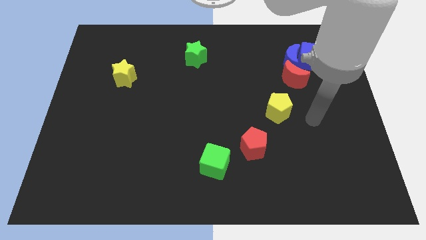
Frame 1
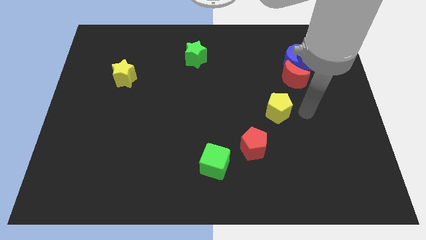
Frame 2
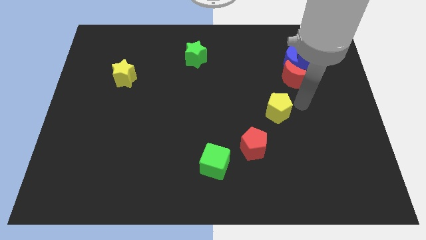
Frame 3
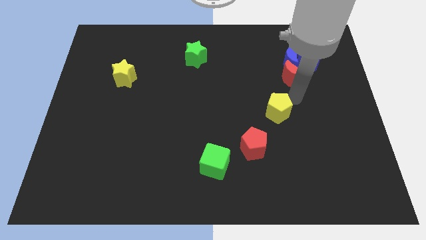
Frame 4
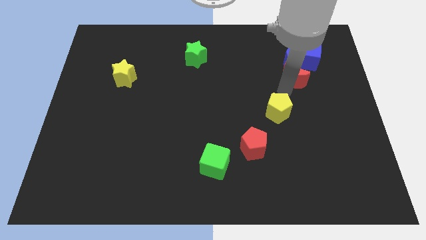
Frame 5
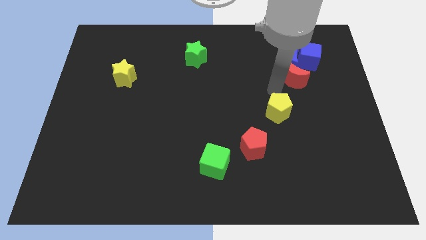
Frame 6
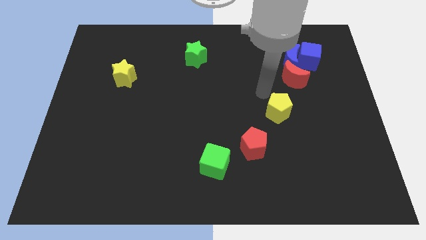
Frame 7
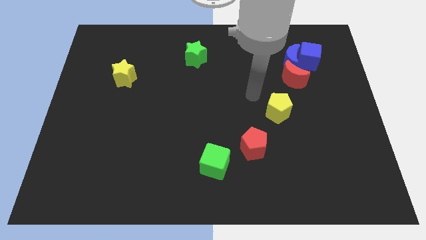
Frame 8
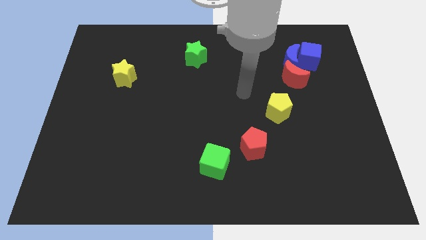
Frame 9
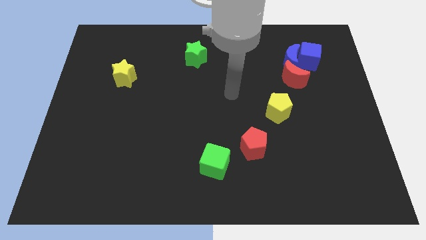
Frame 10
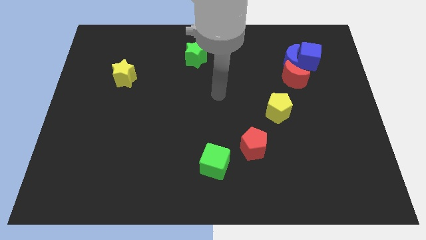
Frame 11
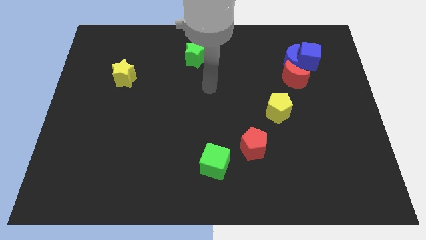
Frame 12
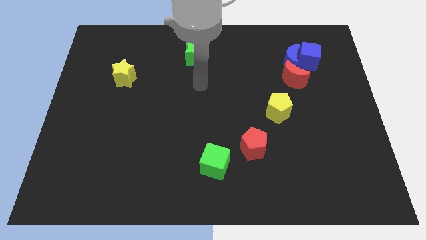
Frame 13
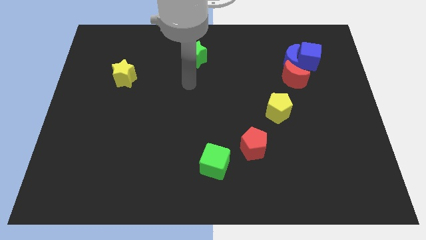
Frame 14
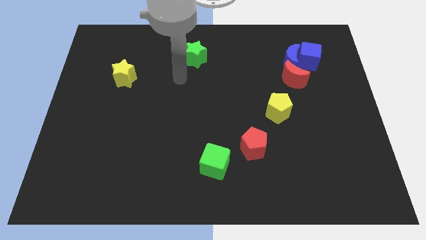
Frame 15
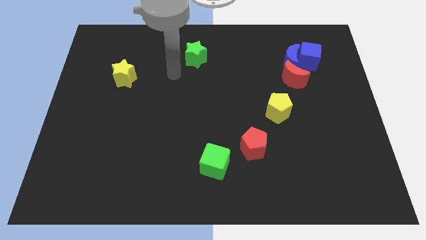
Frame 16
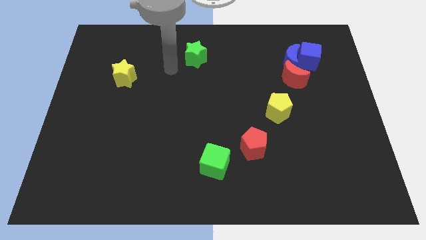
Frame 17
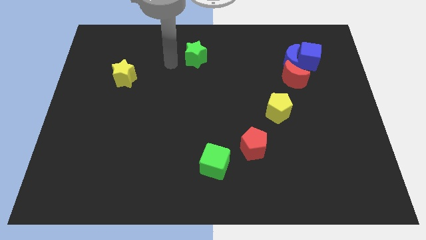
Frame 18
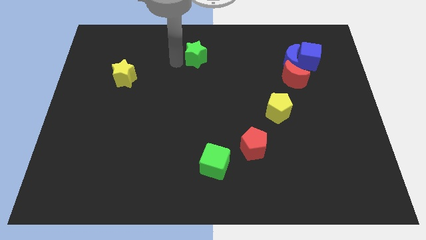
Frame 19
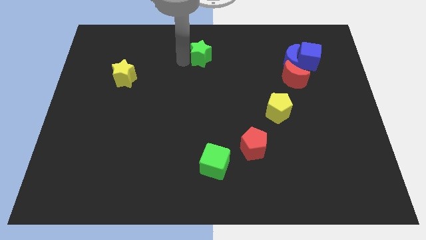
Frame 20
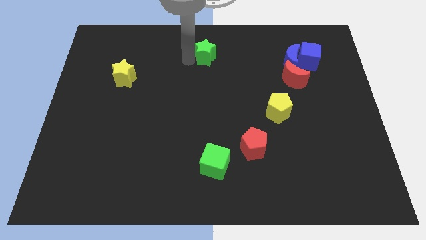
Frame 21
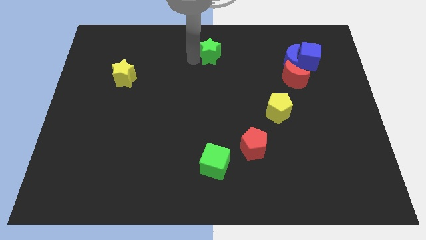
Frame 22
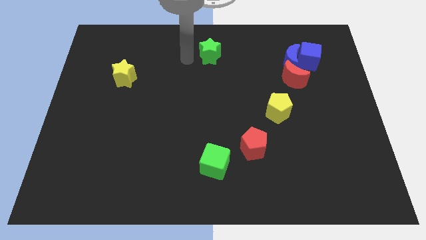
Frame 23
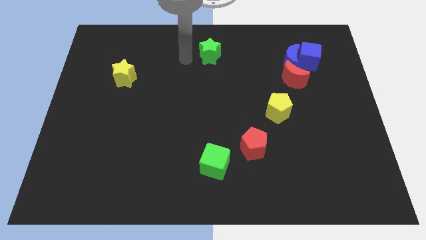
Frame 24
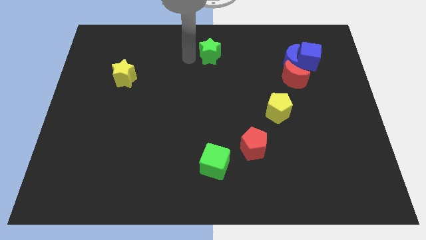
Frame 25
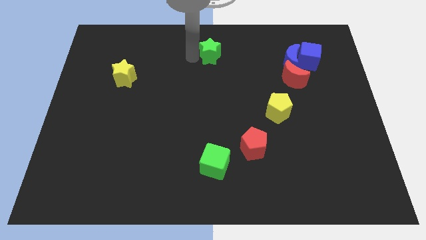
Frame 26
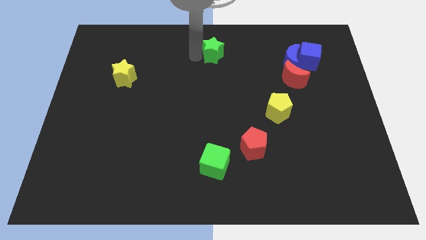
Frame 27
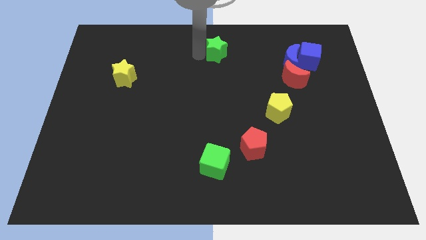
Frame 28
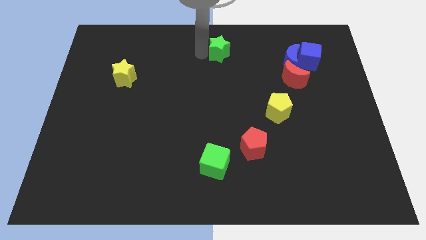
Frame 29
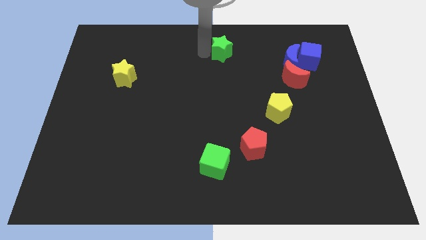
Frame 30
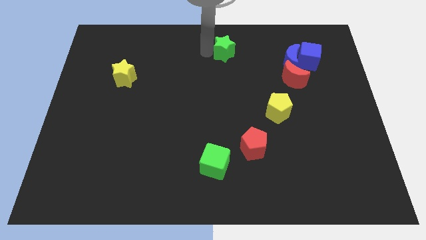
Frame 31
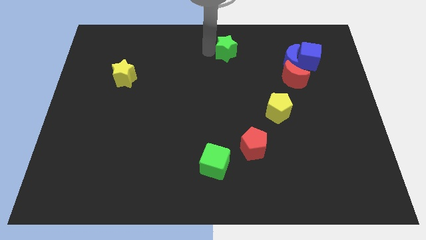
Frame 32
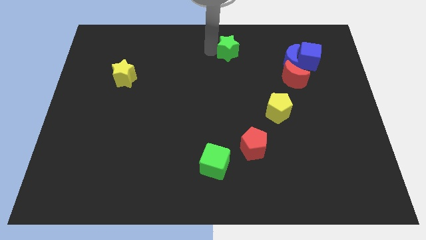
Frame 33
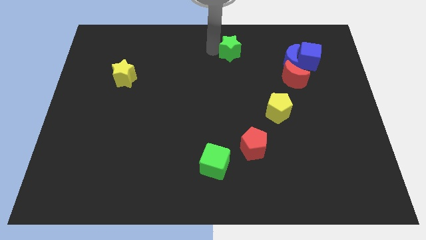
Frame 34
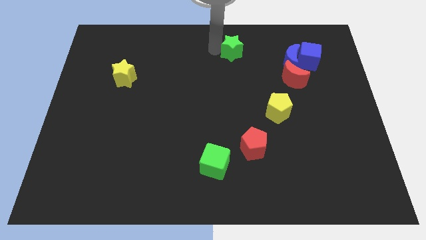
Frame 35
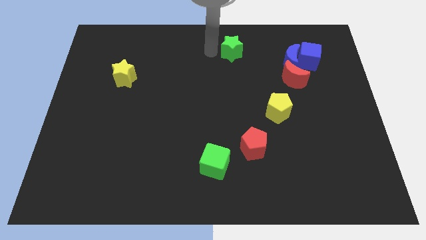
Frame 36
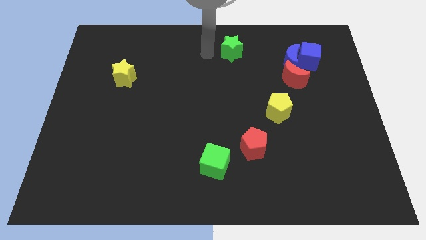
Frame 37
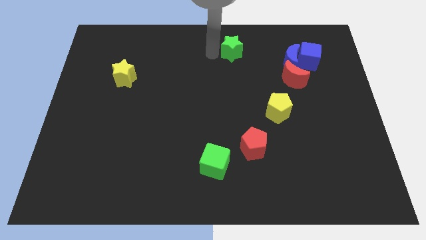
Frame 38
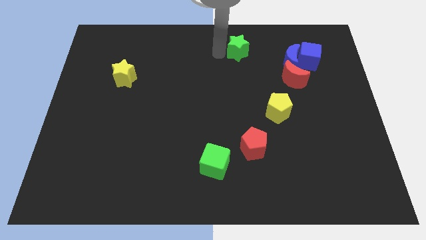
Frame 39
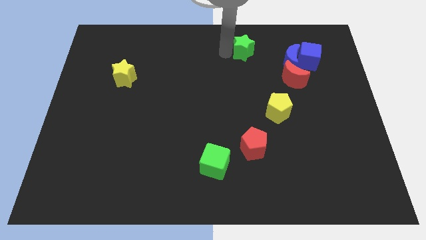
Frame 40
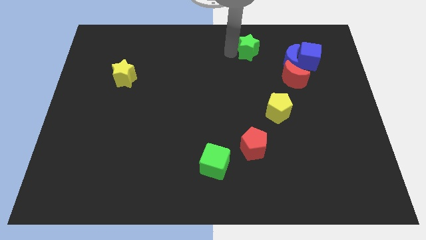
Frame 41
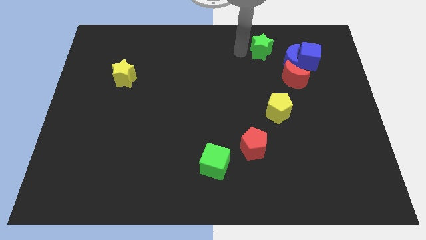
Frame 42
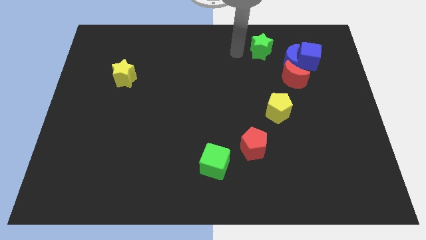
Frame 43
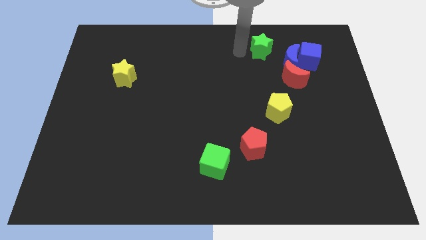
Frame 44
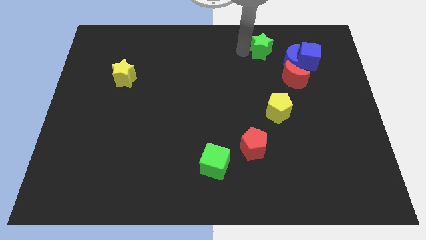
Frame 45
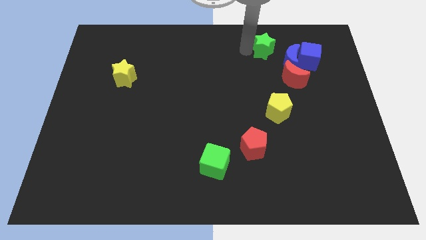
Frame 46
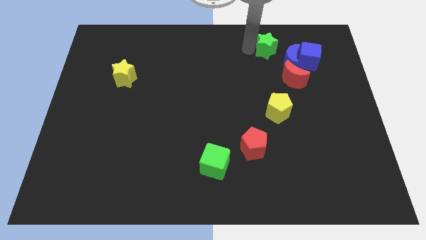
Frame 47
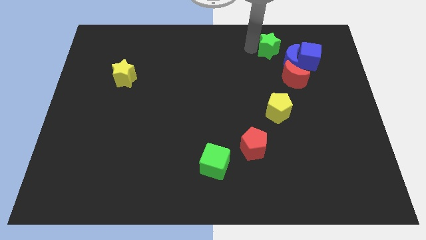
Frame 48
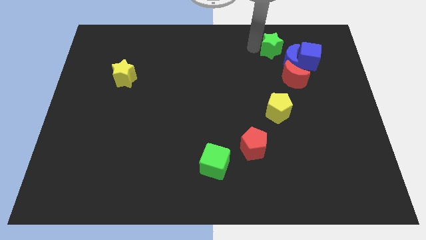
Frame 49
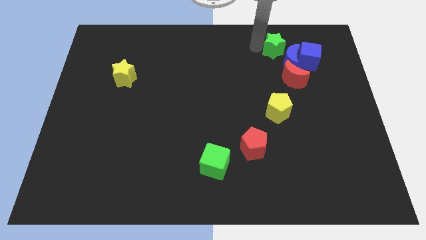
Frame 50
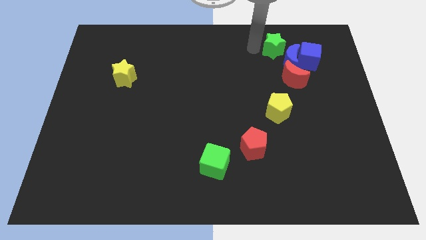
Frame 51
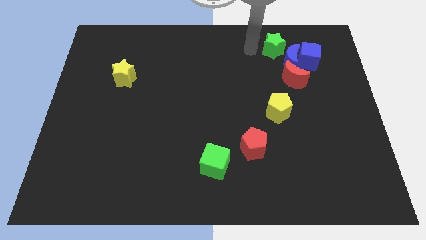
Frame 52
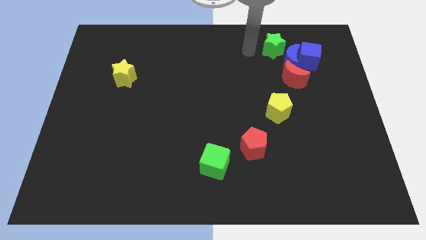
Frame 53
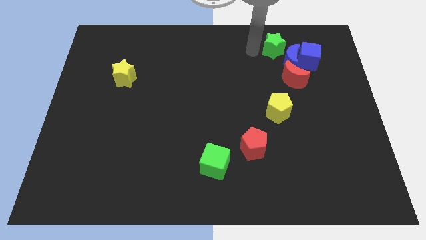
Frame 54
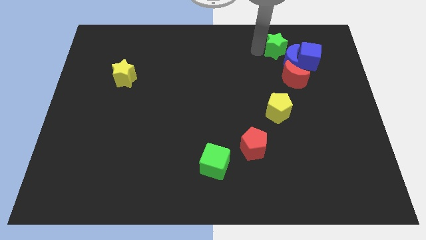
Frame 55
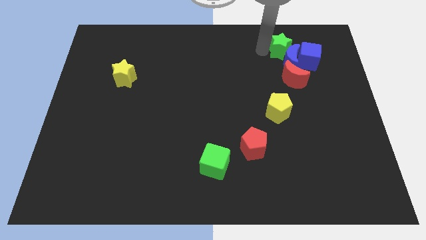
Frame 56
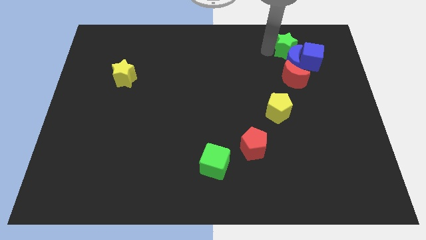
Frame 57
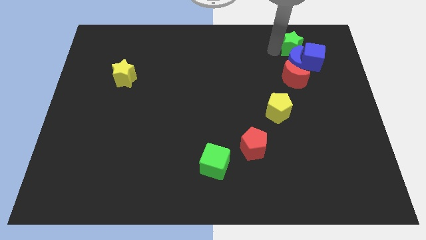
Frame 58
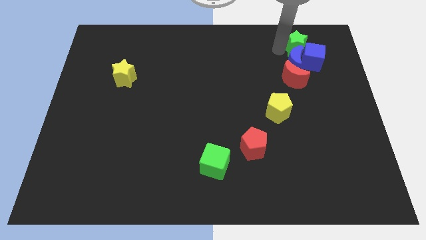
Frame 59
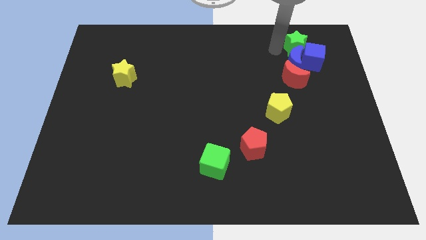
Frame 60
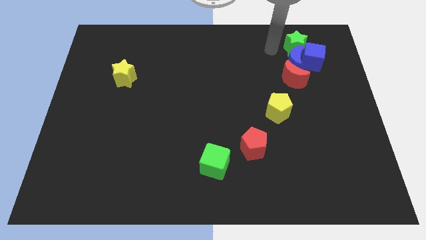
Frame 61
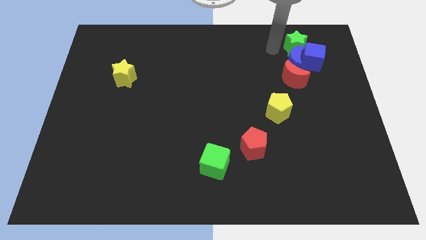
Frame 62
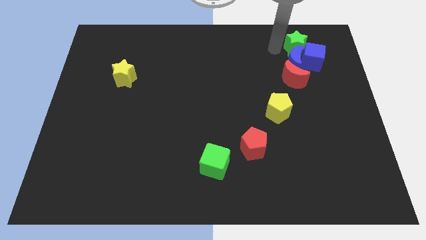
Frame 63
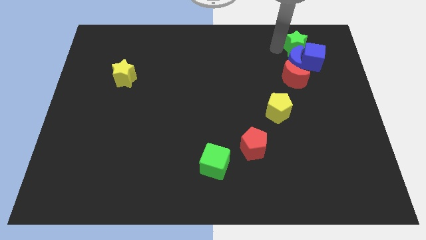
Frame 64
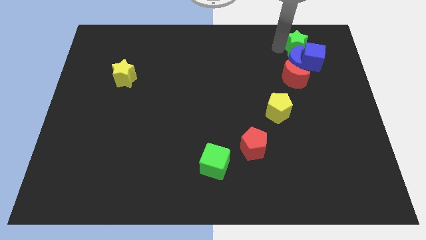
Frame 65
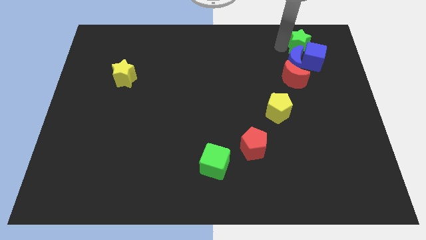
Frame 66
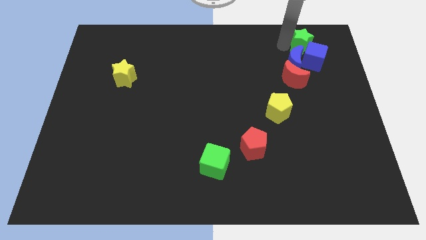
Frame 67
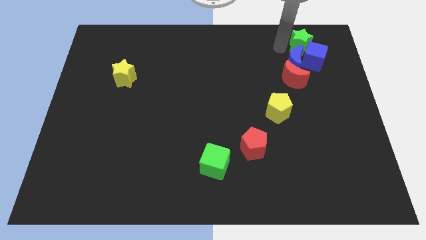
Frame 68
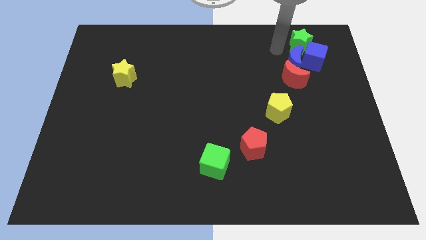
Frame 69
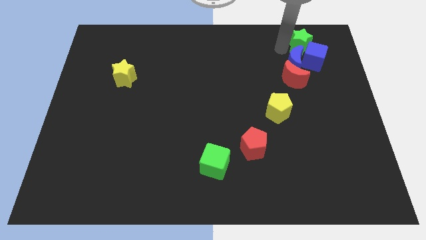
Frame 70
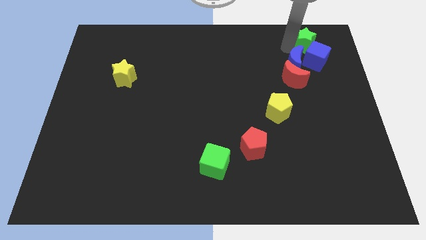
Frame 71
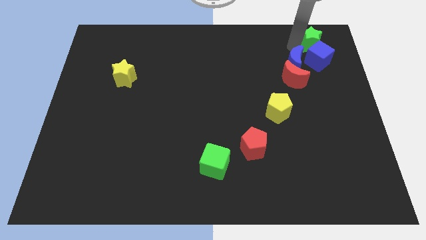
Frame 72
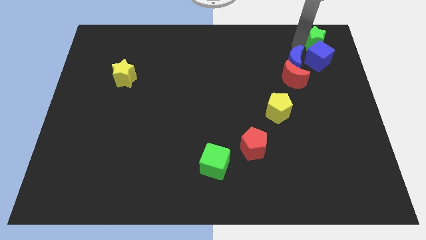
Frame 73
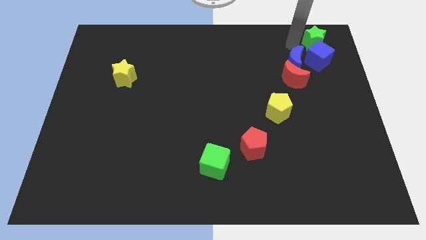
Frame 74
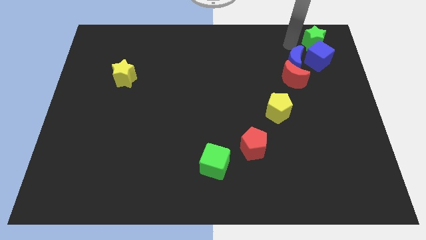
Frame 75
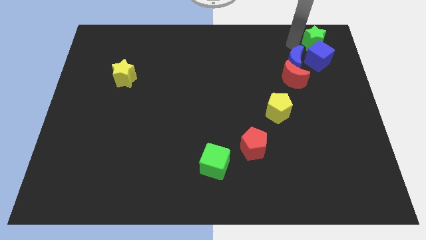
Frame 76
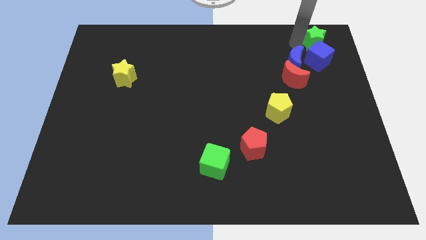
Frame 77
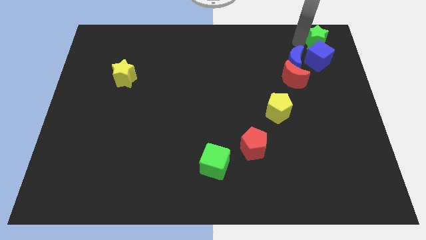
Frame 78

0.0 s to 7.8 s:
slide the green star to the top right corner
